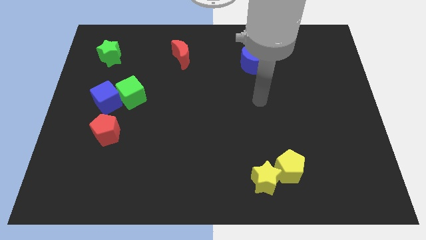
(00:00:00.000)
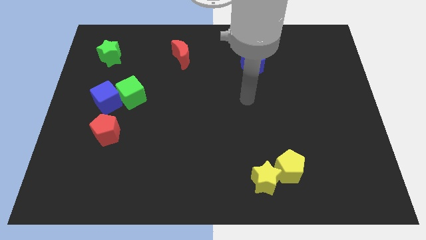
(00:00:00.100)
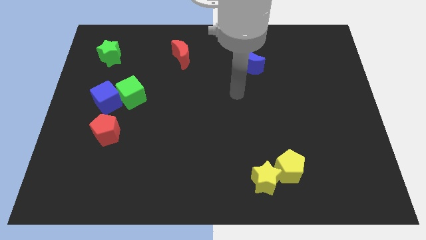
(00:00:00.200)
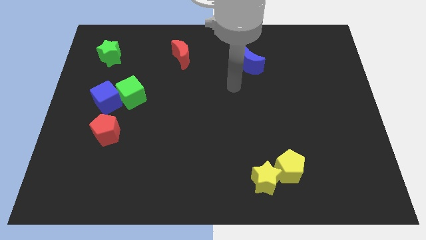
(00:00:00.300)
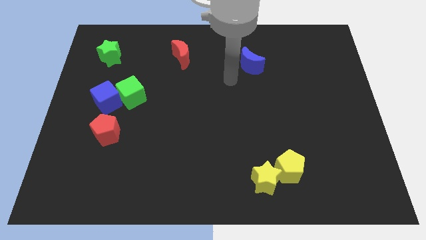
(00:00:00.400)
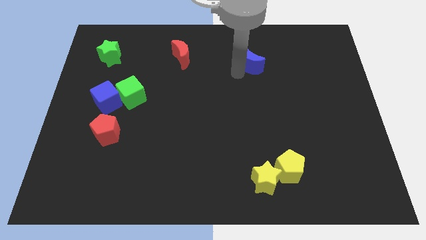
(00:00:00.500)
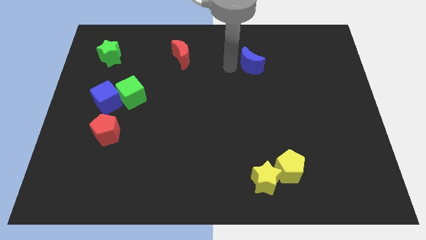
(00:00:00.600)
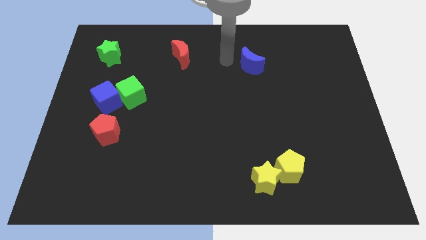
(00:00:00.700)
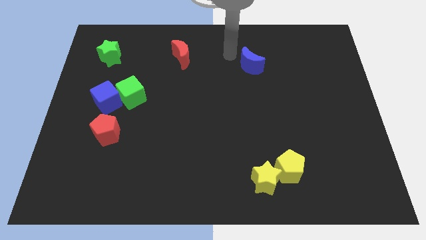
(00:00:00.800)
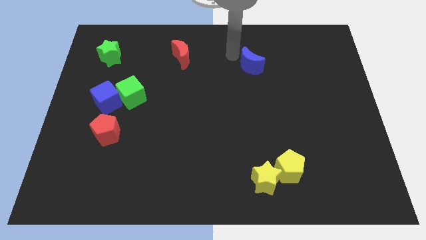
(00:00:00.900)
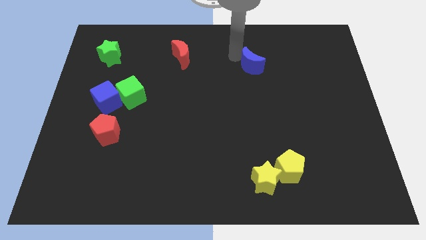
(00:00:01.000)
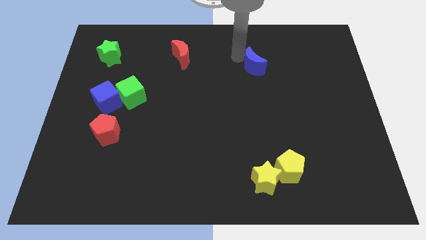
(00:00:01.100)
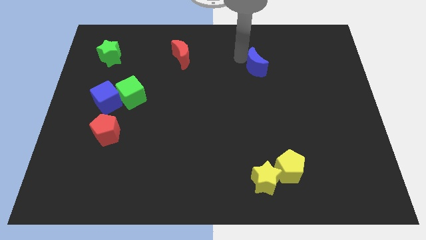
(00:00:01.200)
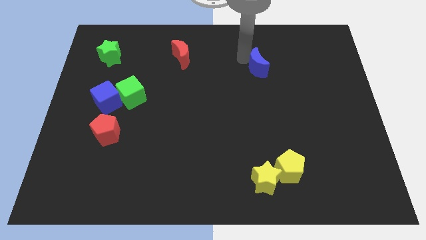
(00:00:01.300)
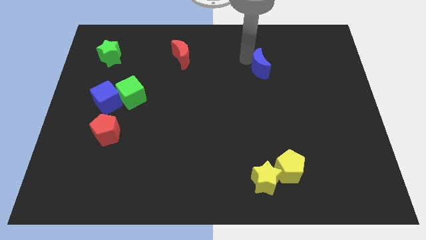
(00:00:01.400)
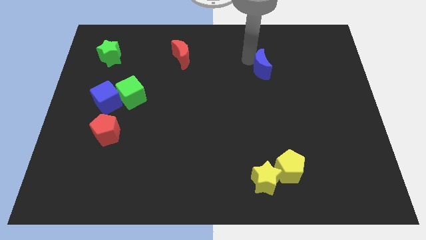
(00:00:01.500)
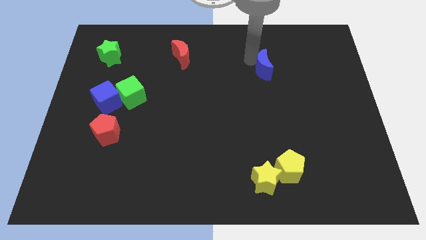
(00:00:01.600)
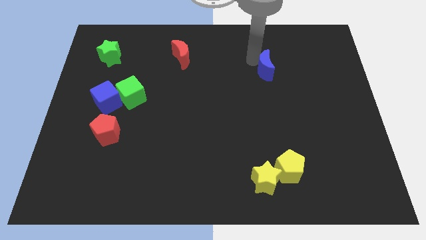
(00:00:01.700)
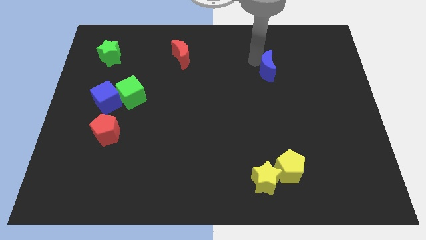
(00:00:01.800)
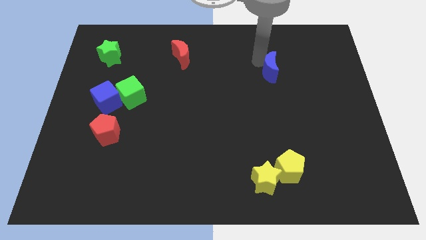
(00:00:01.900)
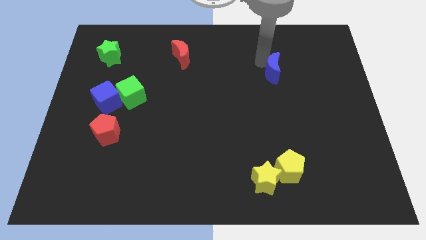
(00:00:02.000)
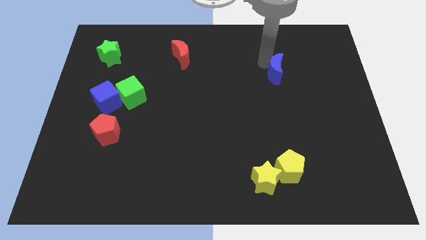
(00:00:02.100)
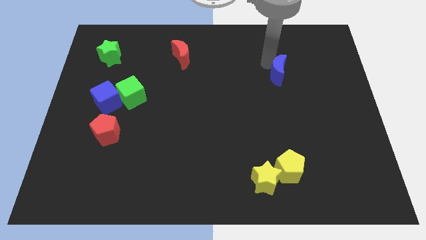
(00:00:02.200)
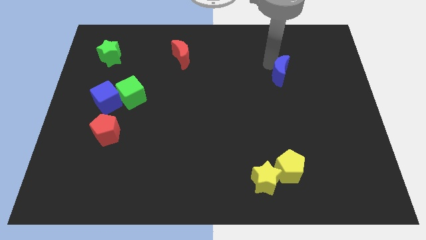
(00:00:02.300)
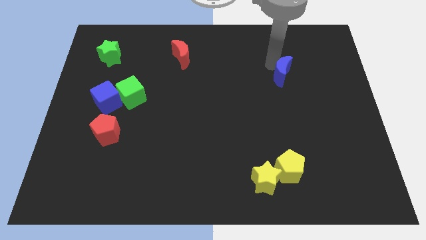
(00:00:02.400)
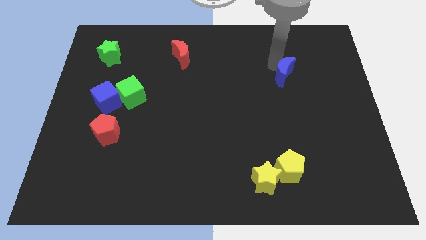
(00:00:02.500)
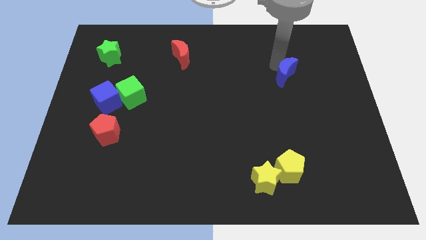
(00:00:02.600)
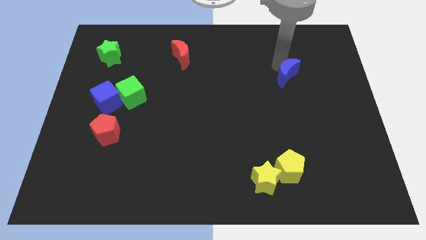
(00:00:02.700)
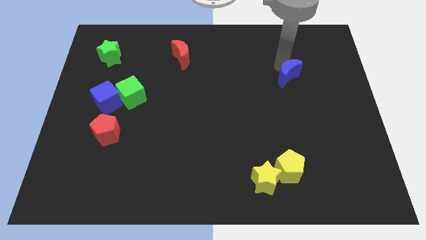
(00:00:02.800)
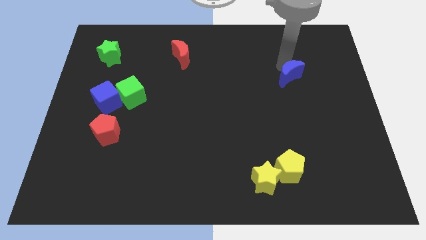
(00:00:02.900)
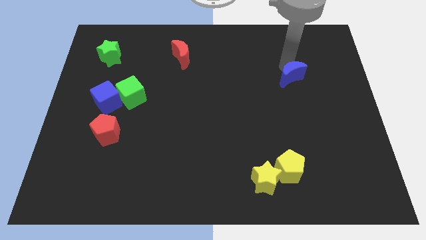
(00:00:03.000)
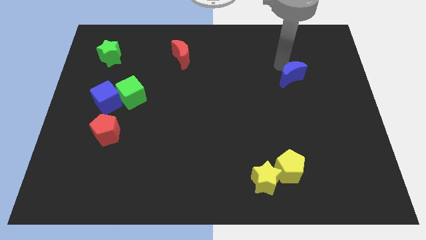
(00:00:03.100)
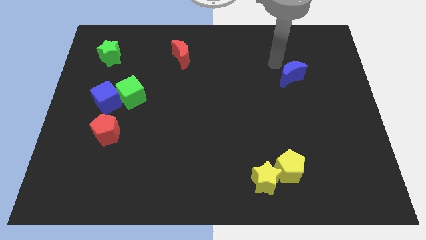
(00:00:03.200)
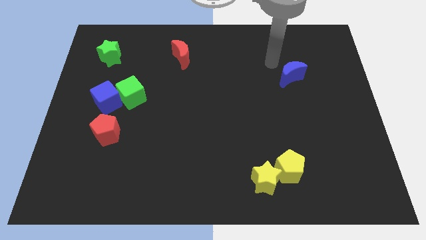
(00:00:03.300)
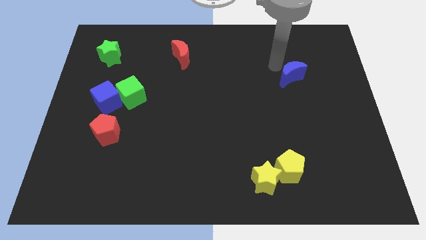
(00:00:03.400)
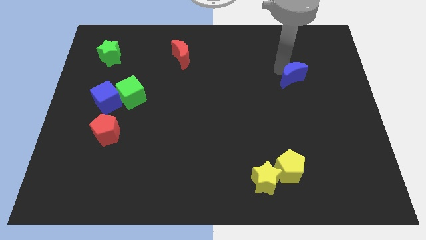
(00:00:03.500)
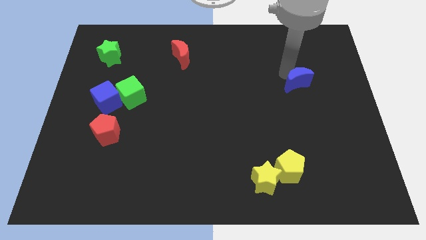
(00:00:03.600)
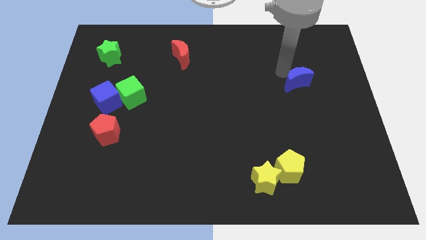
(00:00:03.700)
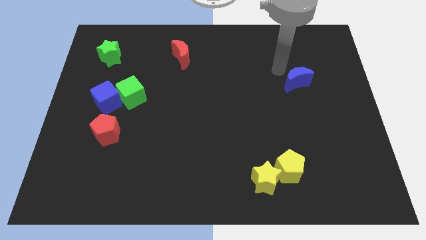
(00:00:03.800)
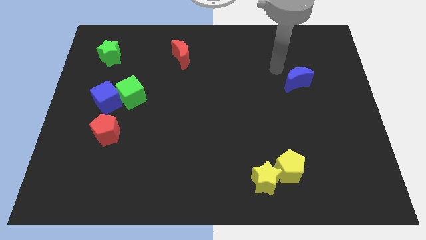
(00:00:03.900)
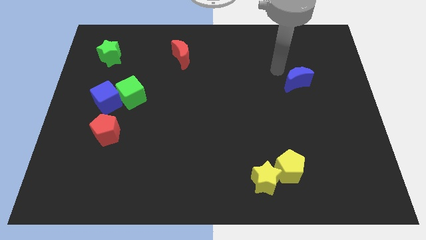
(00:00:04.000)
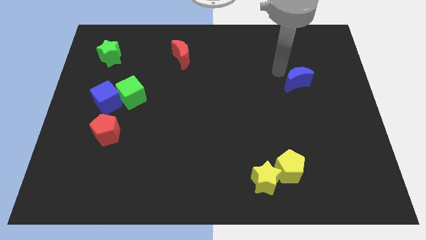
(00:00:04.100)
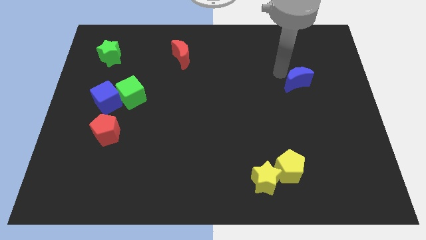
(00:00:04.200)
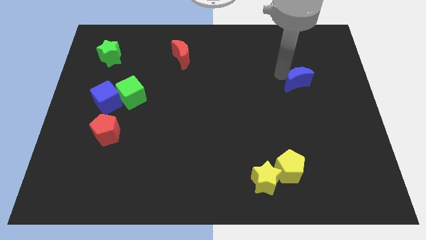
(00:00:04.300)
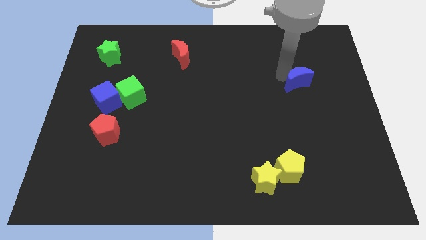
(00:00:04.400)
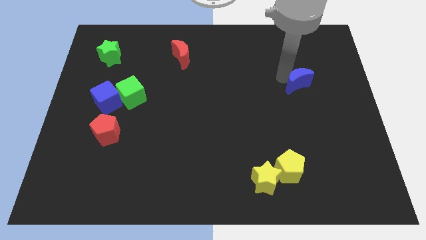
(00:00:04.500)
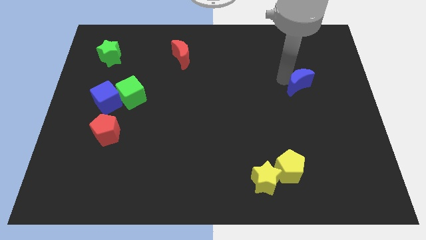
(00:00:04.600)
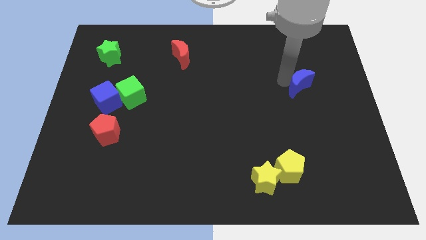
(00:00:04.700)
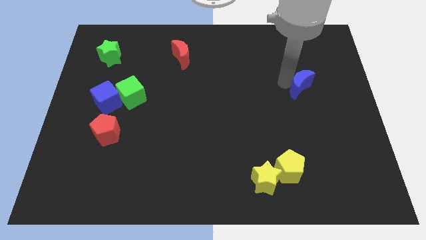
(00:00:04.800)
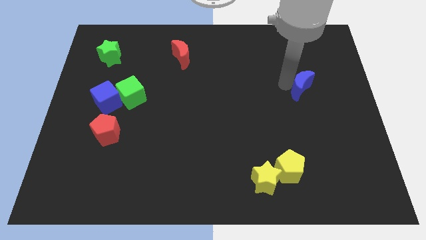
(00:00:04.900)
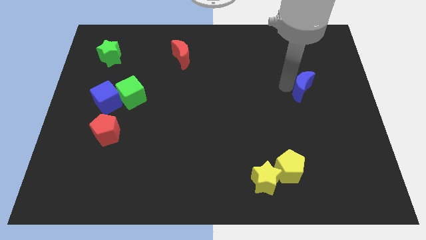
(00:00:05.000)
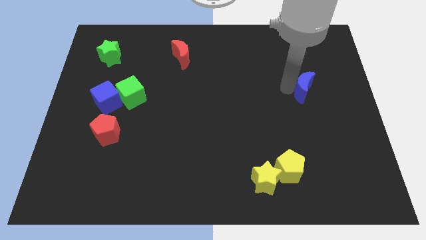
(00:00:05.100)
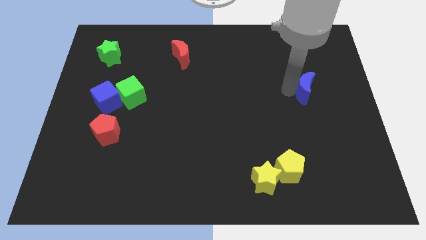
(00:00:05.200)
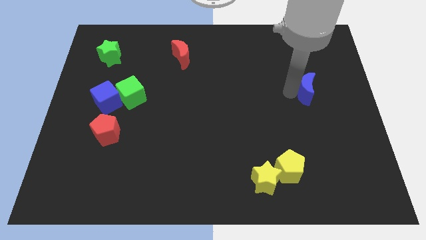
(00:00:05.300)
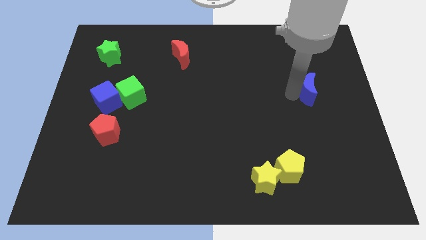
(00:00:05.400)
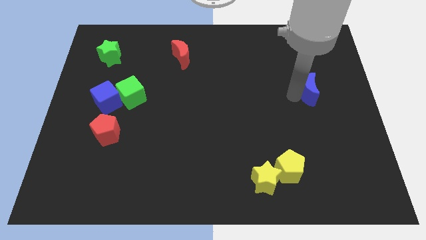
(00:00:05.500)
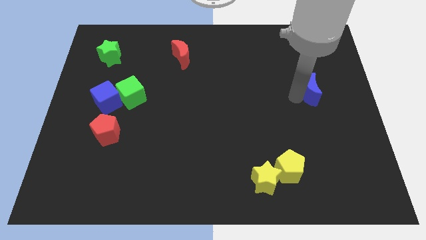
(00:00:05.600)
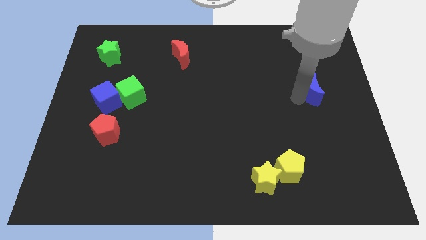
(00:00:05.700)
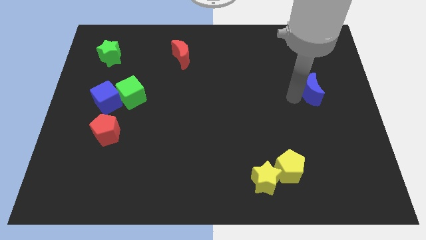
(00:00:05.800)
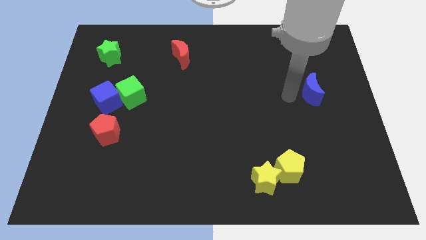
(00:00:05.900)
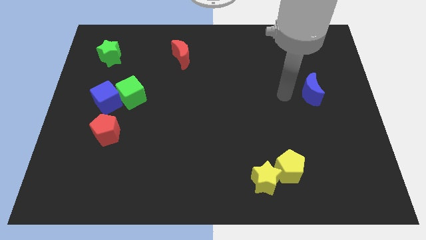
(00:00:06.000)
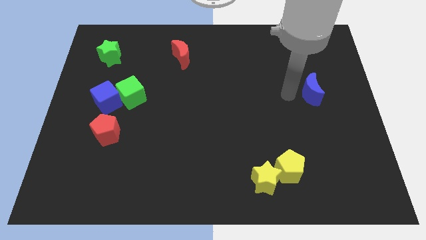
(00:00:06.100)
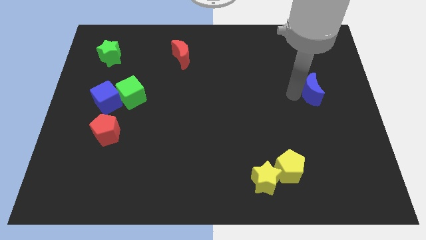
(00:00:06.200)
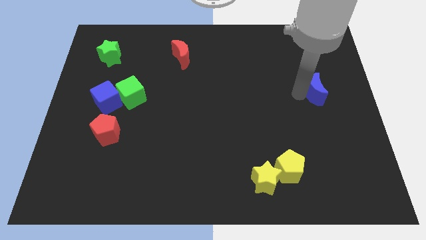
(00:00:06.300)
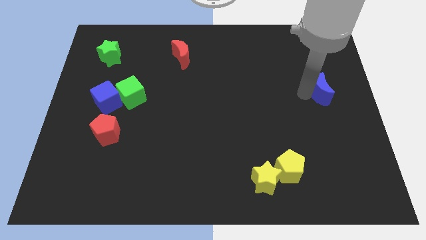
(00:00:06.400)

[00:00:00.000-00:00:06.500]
put the blue moon to the right side

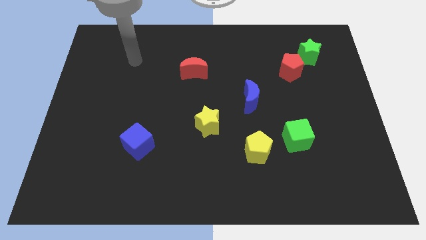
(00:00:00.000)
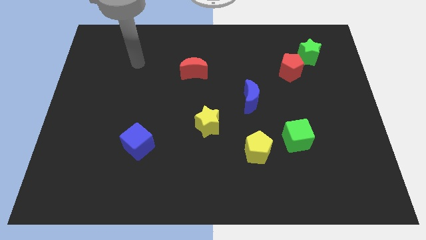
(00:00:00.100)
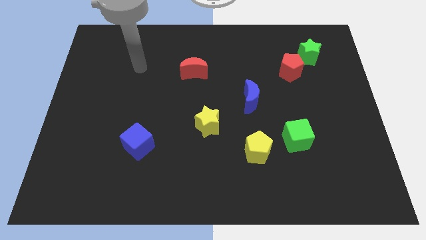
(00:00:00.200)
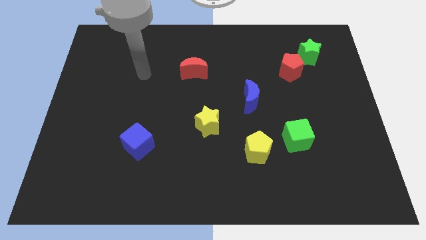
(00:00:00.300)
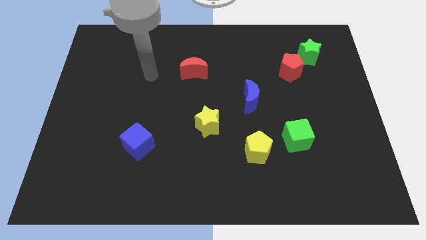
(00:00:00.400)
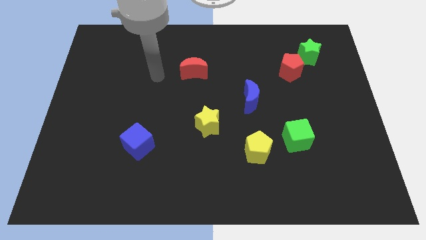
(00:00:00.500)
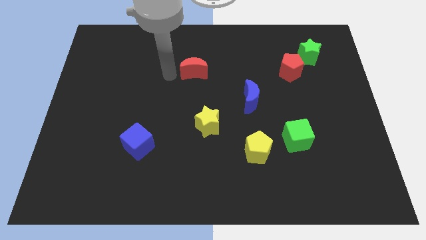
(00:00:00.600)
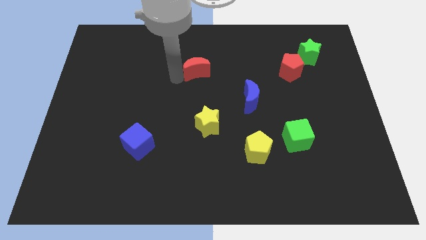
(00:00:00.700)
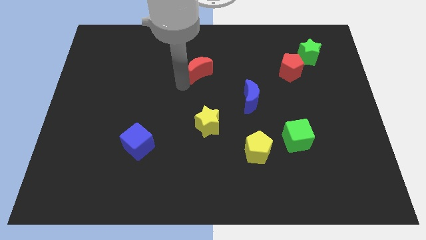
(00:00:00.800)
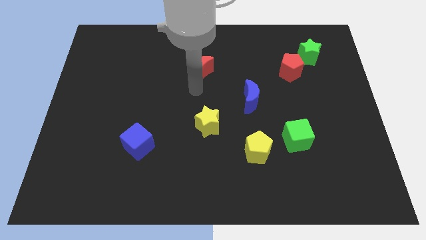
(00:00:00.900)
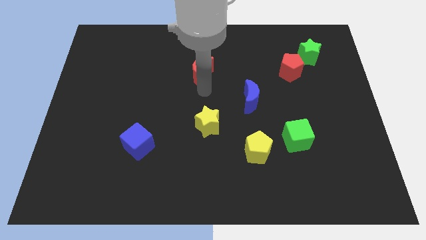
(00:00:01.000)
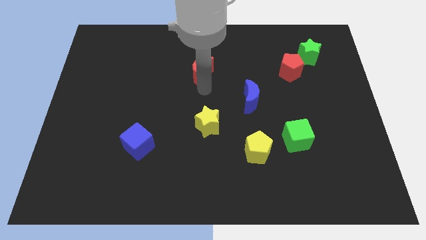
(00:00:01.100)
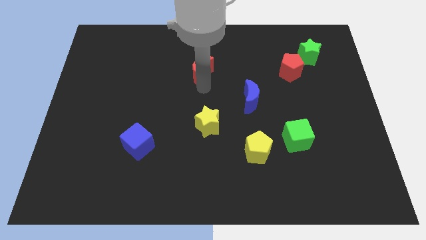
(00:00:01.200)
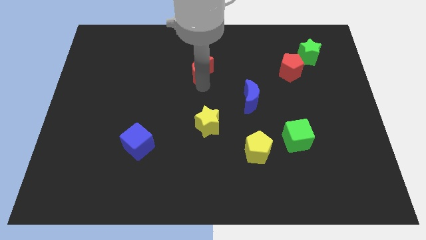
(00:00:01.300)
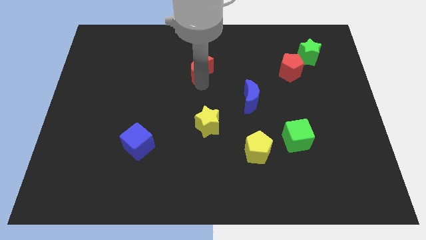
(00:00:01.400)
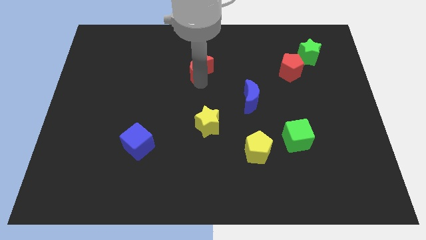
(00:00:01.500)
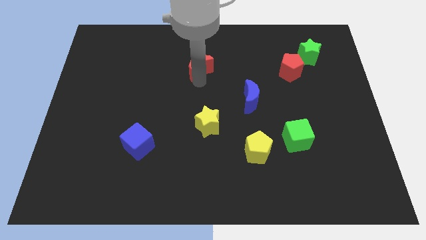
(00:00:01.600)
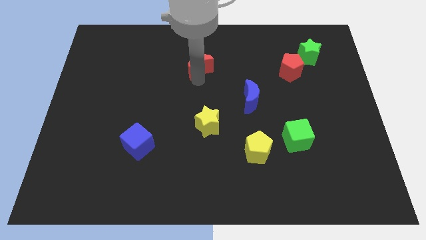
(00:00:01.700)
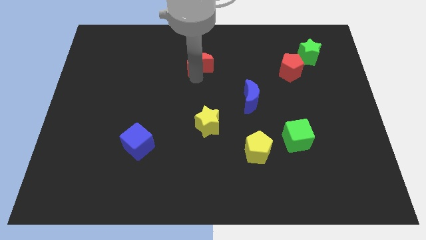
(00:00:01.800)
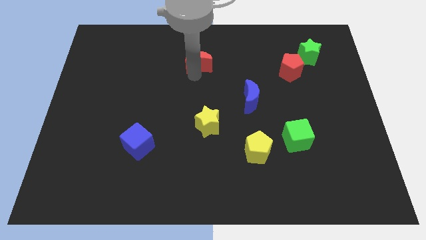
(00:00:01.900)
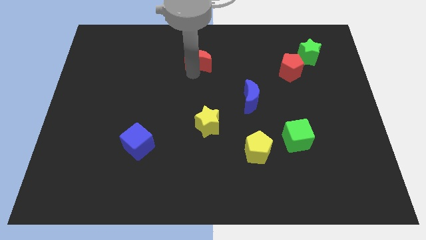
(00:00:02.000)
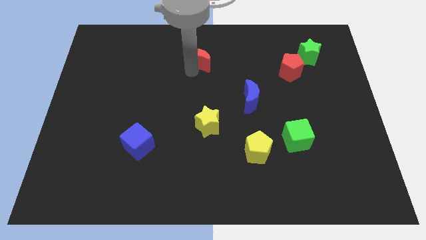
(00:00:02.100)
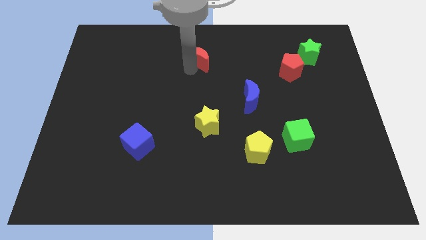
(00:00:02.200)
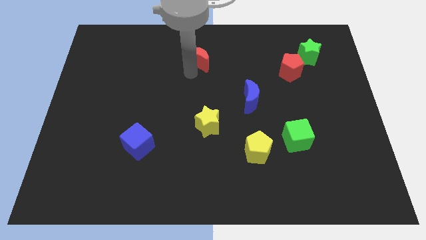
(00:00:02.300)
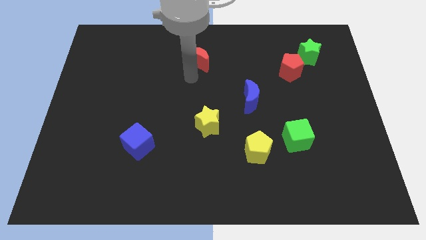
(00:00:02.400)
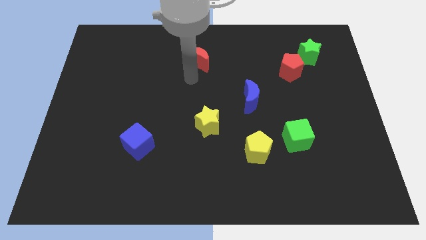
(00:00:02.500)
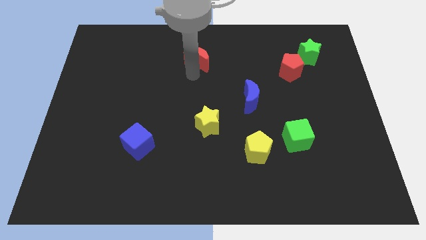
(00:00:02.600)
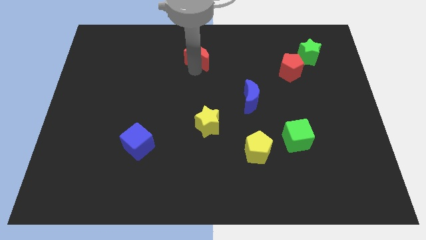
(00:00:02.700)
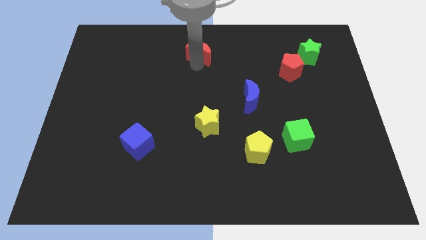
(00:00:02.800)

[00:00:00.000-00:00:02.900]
put the red moon to the towards your base
